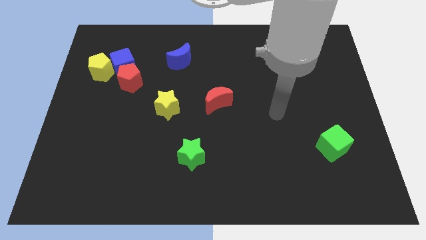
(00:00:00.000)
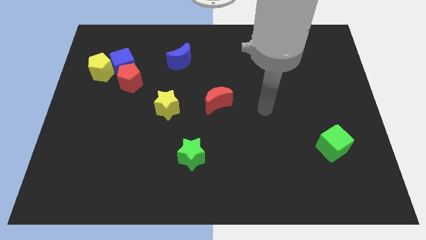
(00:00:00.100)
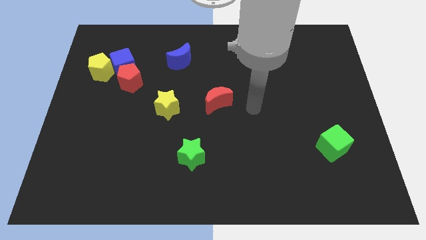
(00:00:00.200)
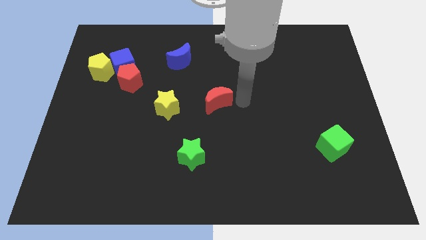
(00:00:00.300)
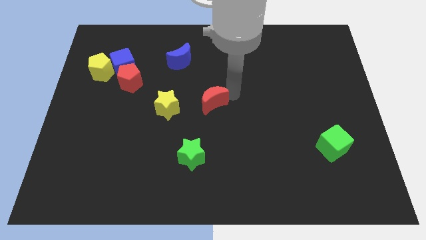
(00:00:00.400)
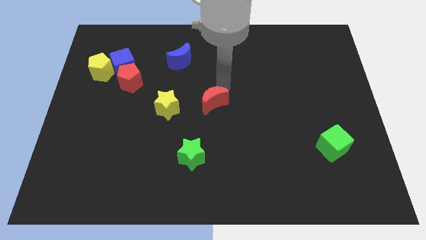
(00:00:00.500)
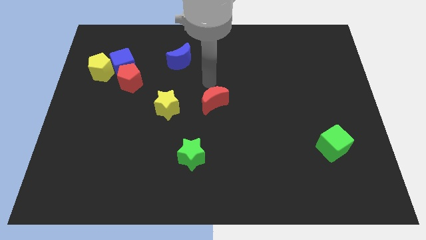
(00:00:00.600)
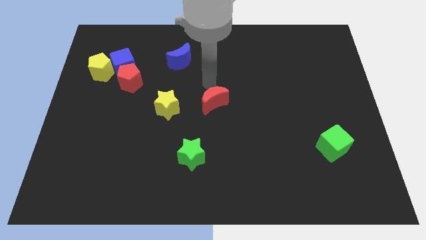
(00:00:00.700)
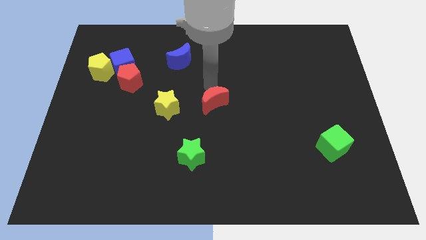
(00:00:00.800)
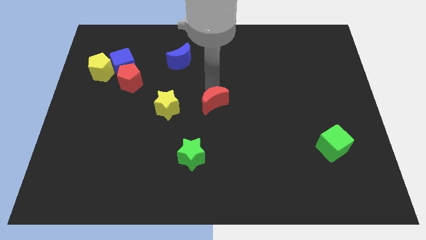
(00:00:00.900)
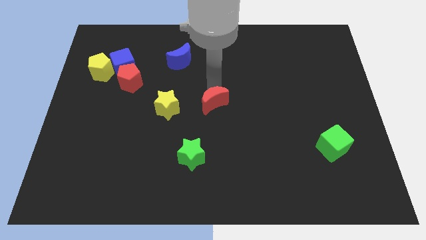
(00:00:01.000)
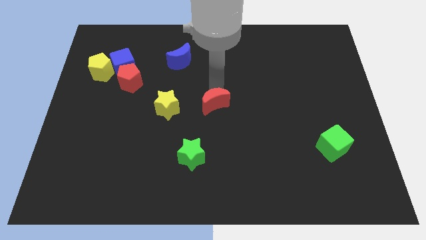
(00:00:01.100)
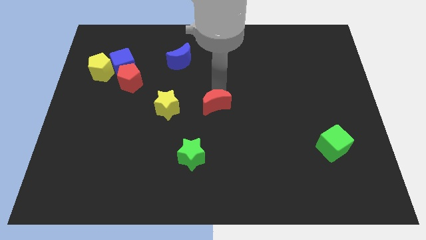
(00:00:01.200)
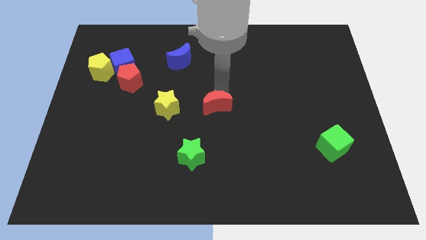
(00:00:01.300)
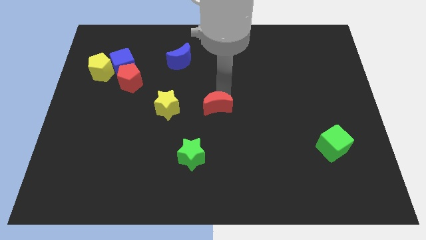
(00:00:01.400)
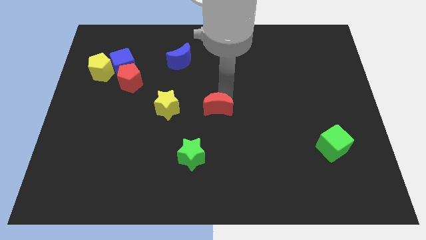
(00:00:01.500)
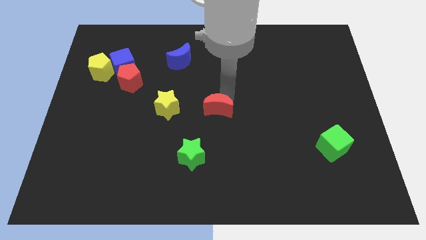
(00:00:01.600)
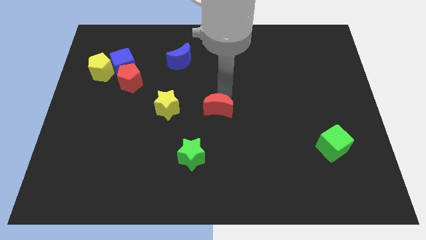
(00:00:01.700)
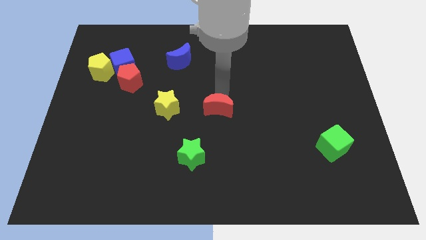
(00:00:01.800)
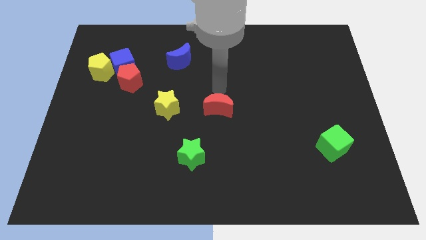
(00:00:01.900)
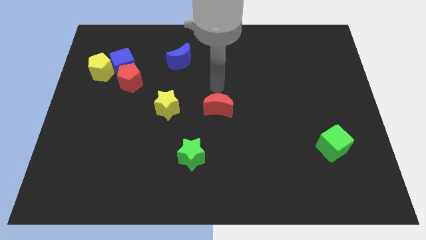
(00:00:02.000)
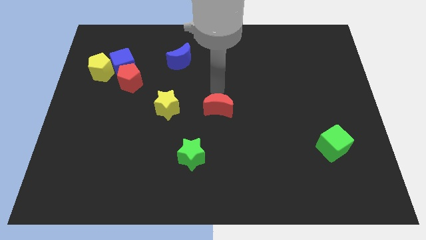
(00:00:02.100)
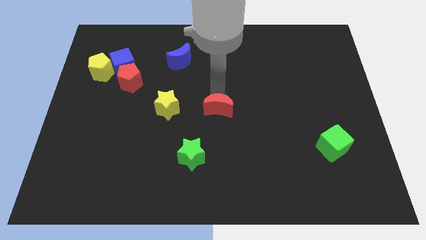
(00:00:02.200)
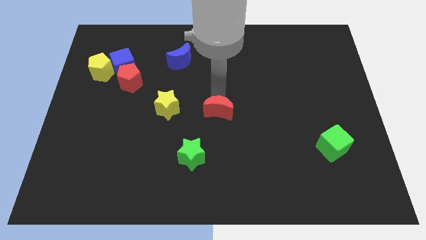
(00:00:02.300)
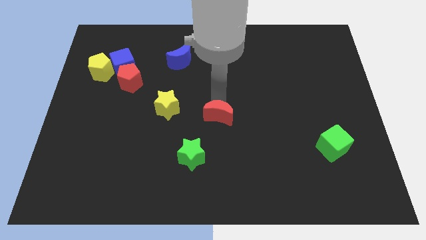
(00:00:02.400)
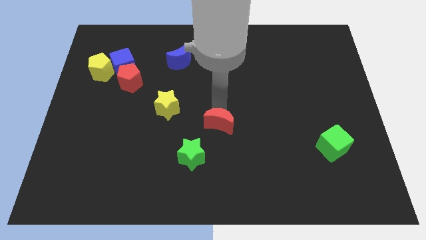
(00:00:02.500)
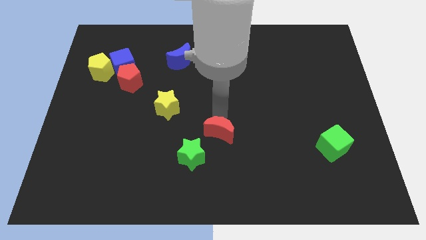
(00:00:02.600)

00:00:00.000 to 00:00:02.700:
slightly slide the red moon downwards

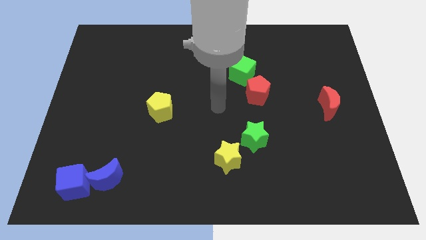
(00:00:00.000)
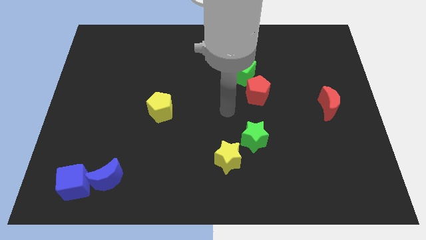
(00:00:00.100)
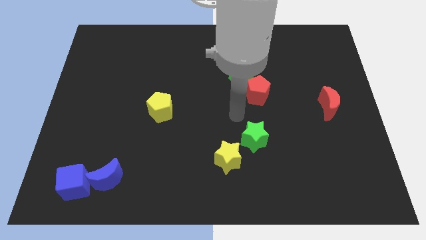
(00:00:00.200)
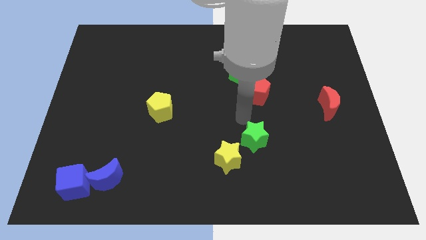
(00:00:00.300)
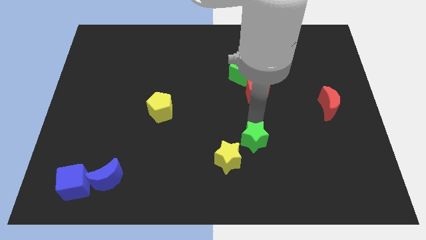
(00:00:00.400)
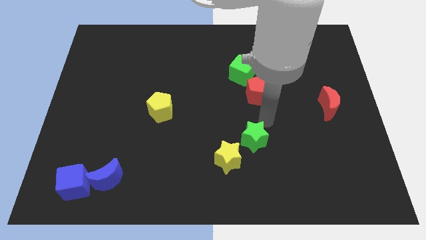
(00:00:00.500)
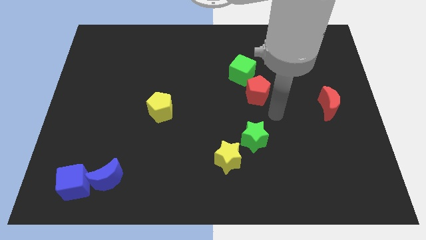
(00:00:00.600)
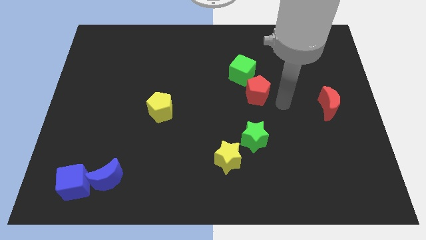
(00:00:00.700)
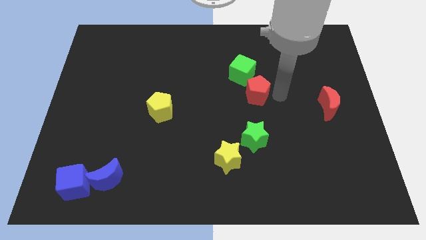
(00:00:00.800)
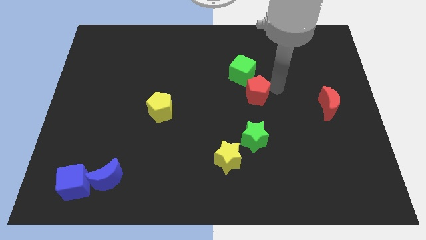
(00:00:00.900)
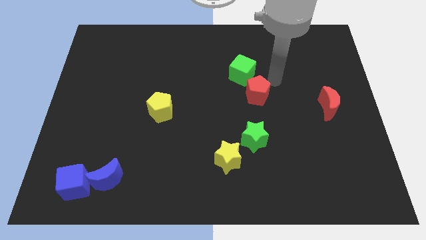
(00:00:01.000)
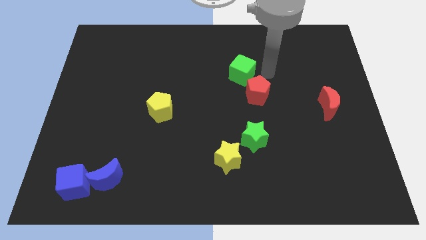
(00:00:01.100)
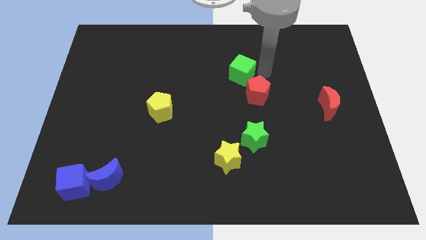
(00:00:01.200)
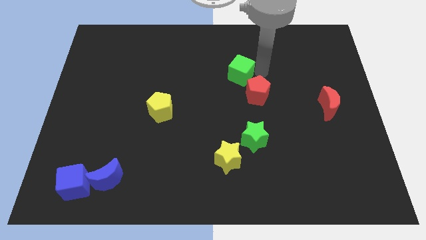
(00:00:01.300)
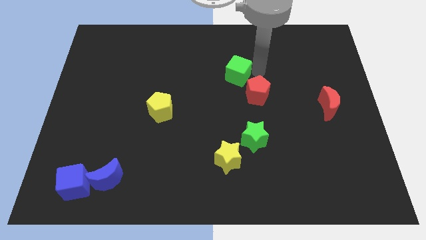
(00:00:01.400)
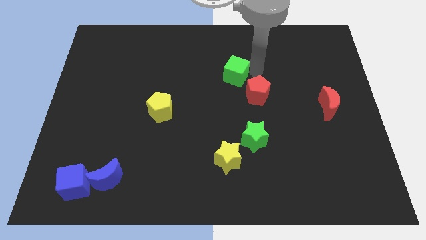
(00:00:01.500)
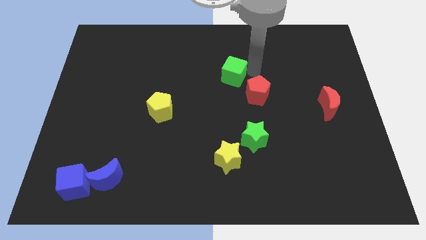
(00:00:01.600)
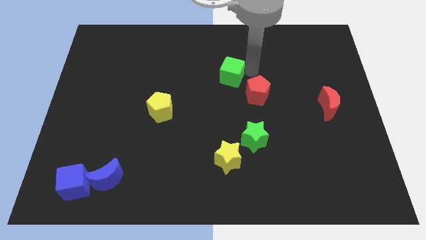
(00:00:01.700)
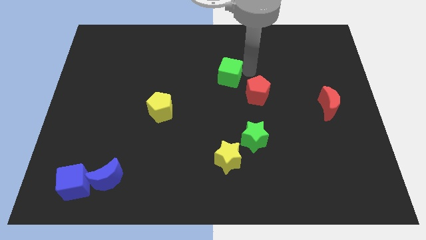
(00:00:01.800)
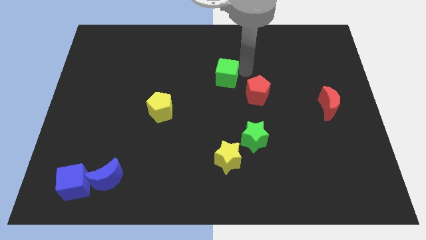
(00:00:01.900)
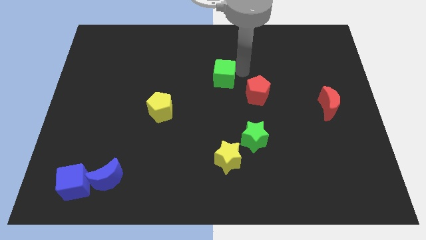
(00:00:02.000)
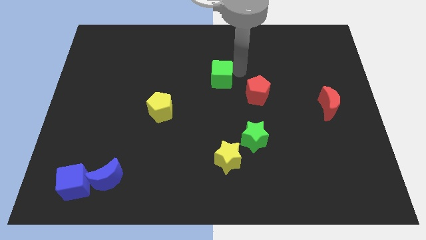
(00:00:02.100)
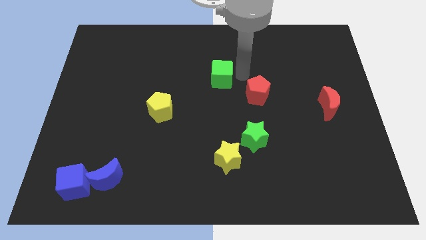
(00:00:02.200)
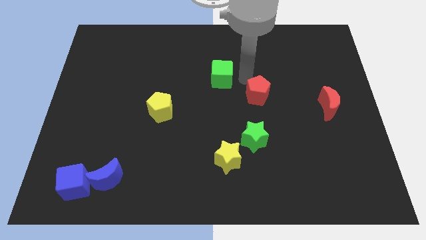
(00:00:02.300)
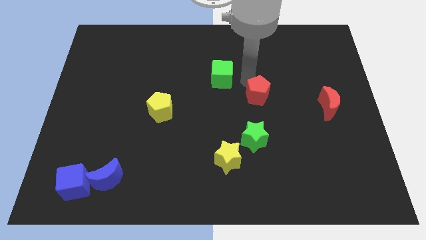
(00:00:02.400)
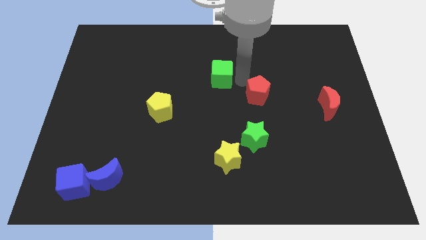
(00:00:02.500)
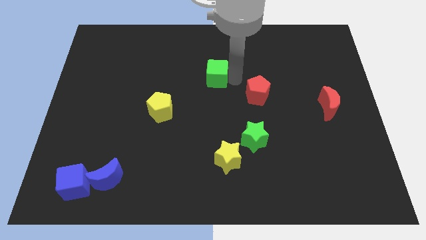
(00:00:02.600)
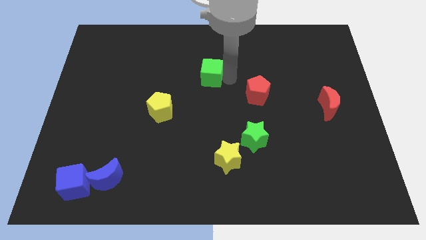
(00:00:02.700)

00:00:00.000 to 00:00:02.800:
slightly move the green cube to the left

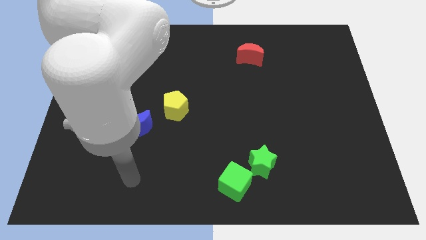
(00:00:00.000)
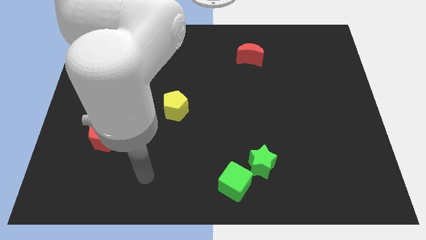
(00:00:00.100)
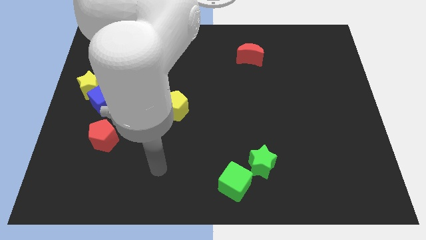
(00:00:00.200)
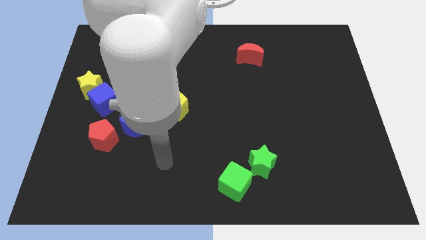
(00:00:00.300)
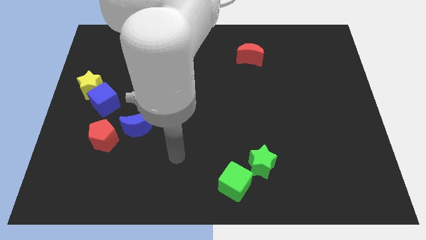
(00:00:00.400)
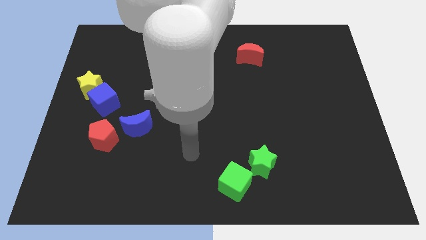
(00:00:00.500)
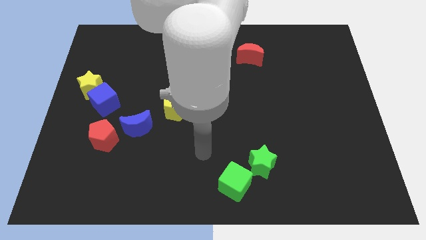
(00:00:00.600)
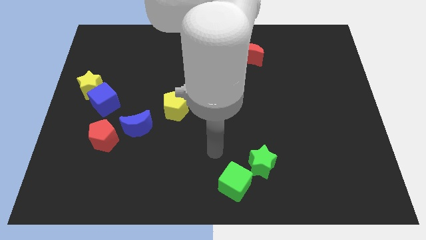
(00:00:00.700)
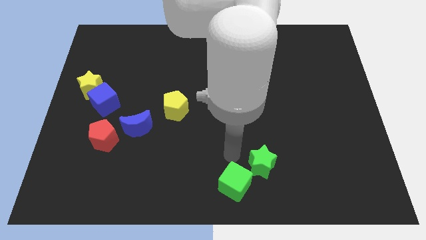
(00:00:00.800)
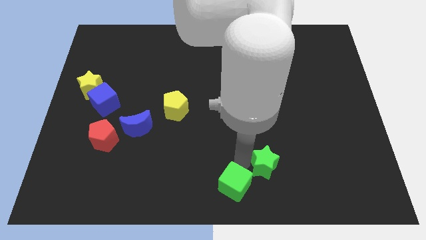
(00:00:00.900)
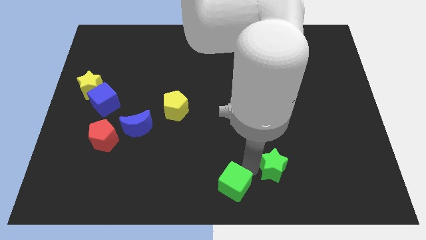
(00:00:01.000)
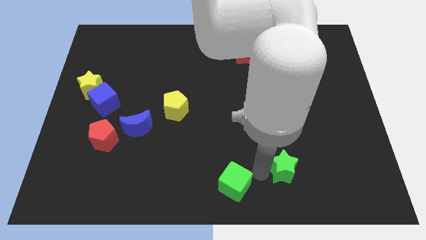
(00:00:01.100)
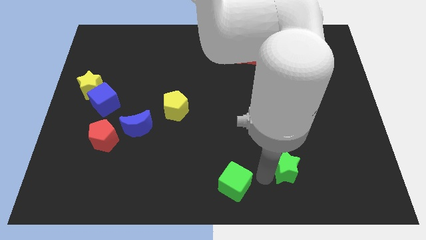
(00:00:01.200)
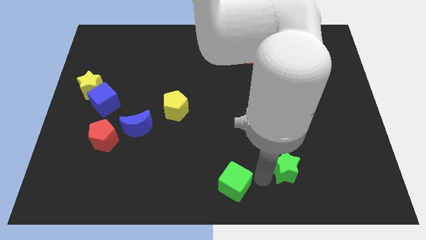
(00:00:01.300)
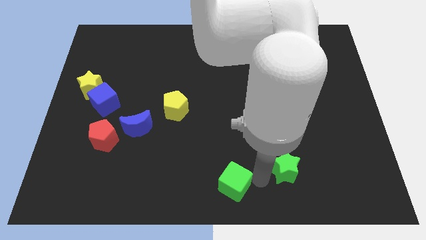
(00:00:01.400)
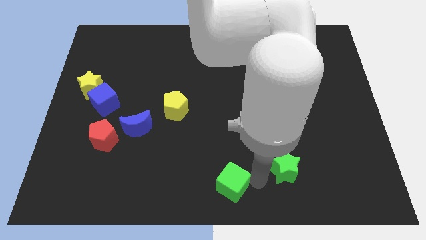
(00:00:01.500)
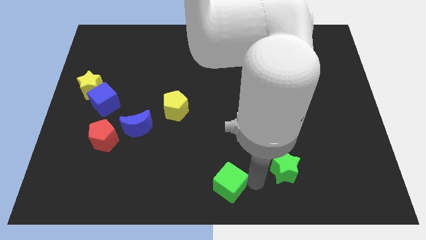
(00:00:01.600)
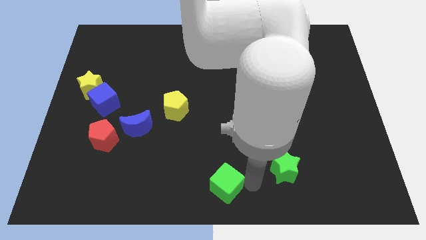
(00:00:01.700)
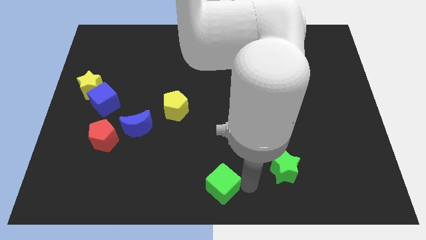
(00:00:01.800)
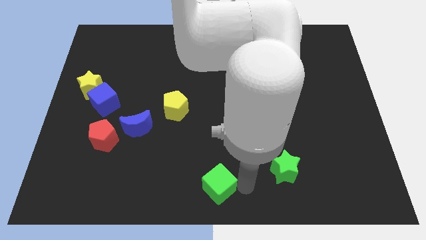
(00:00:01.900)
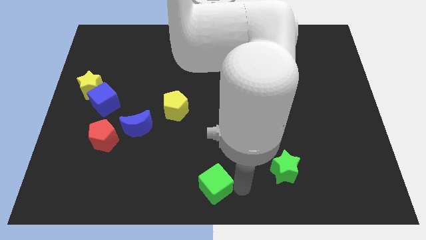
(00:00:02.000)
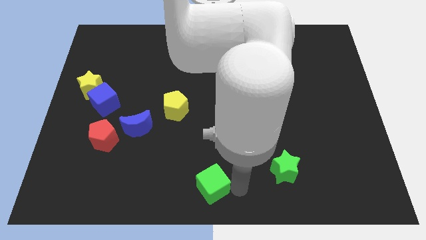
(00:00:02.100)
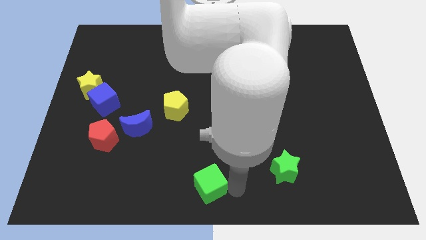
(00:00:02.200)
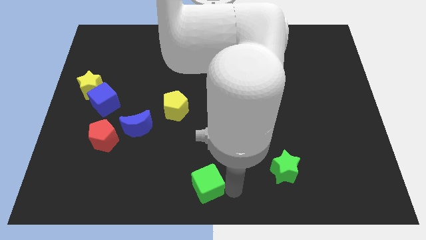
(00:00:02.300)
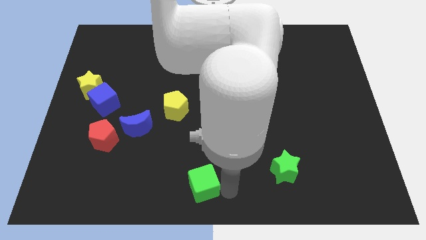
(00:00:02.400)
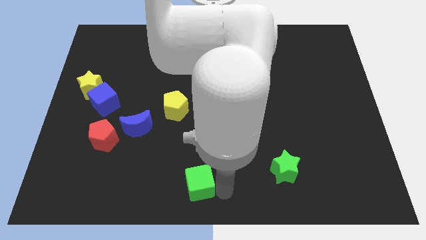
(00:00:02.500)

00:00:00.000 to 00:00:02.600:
slightly push the green cube left
